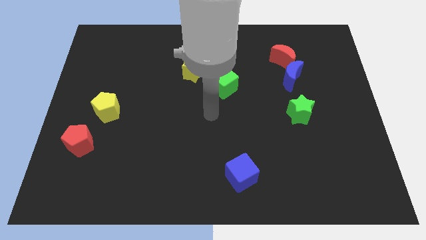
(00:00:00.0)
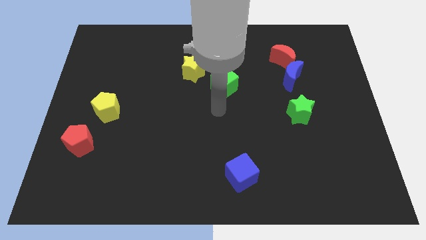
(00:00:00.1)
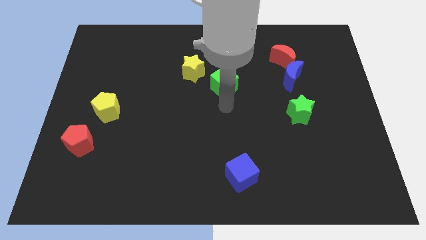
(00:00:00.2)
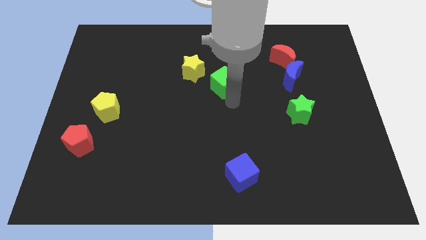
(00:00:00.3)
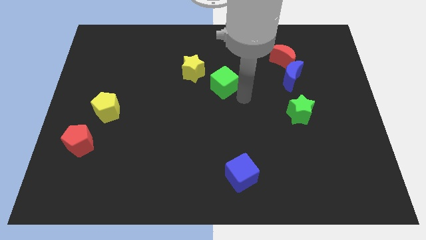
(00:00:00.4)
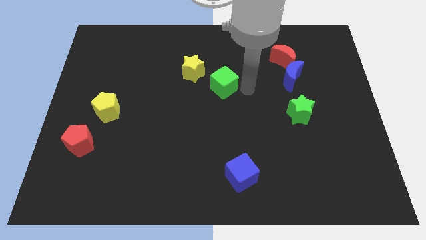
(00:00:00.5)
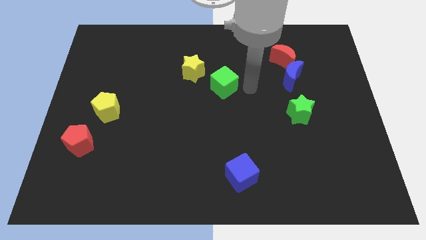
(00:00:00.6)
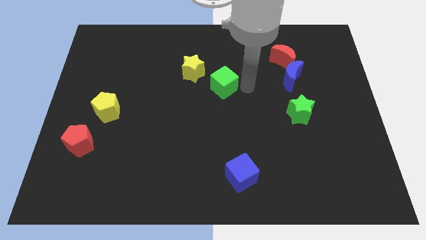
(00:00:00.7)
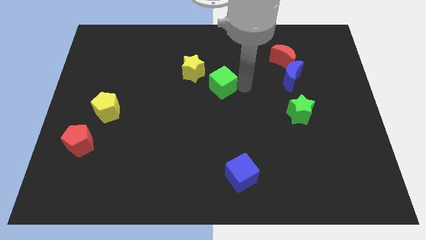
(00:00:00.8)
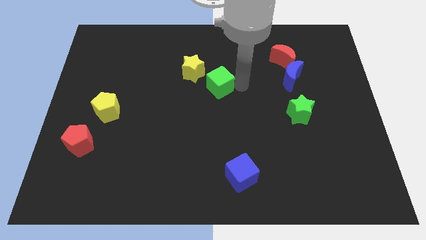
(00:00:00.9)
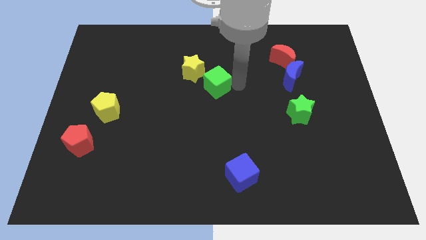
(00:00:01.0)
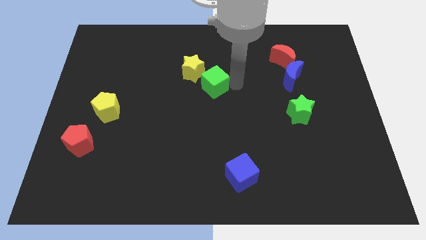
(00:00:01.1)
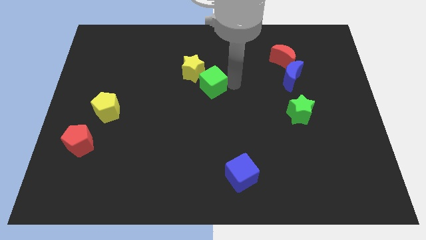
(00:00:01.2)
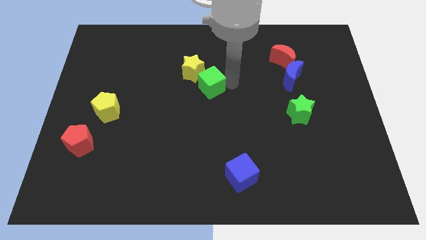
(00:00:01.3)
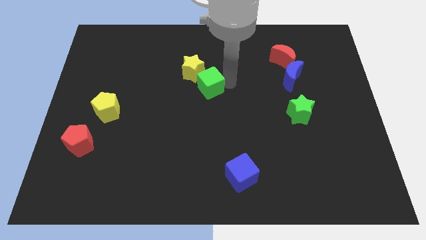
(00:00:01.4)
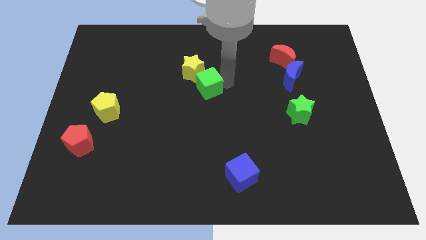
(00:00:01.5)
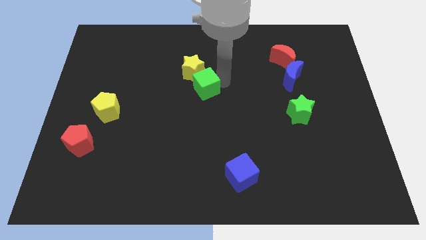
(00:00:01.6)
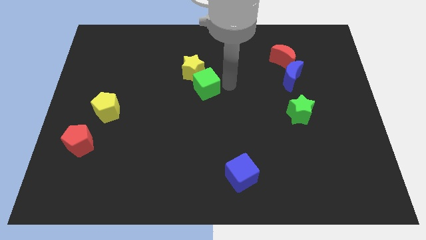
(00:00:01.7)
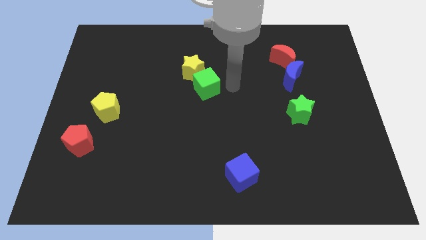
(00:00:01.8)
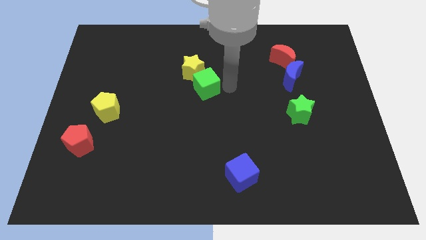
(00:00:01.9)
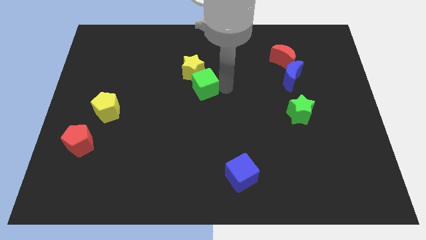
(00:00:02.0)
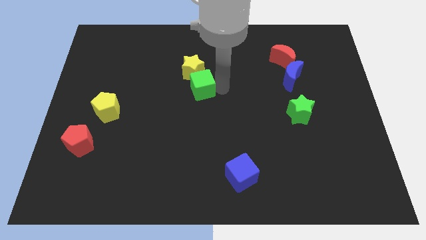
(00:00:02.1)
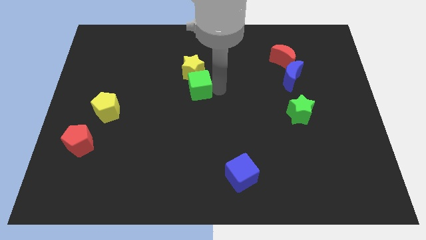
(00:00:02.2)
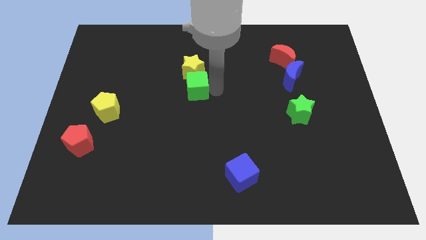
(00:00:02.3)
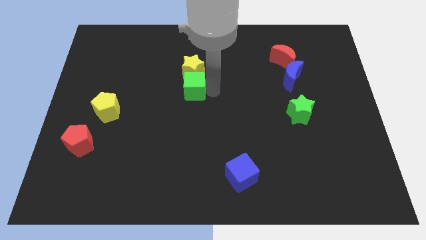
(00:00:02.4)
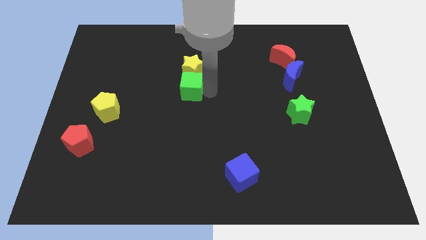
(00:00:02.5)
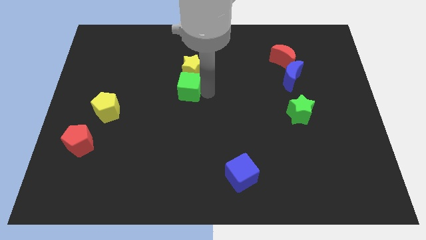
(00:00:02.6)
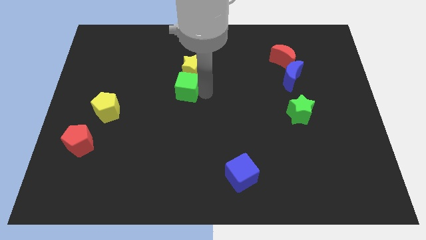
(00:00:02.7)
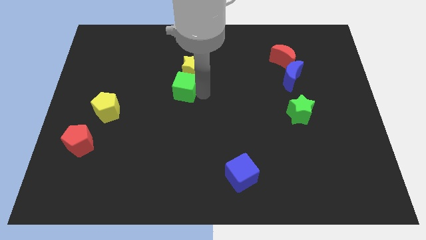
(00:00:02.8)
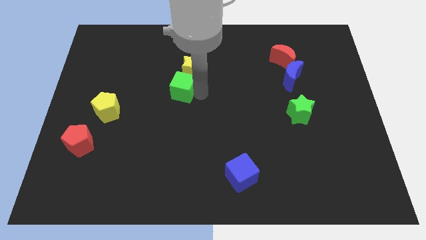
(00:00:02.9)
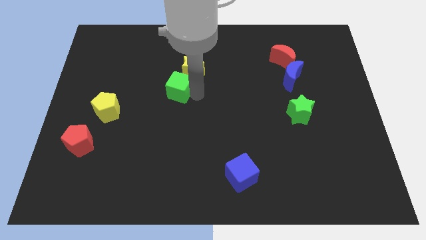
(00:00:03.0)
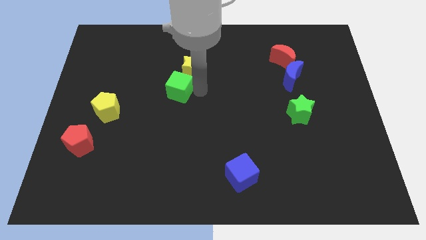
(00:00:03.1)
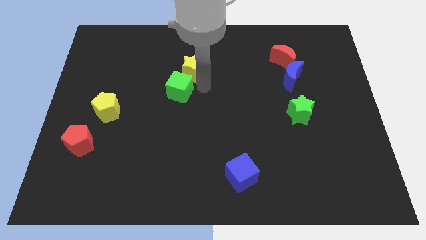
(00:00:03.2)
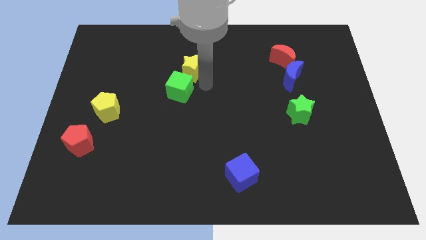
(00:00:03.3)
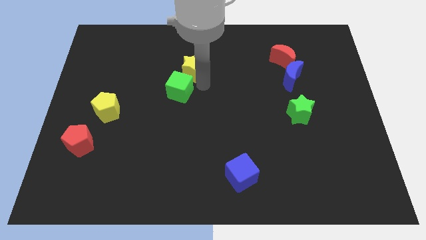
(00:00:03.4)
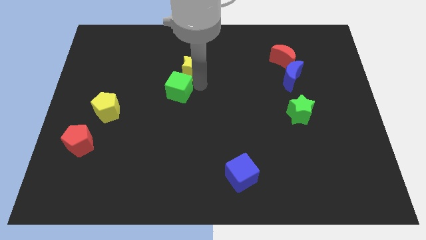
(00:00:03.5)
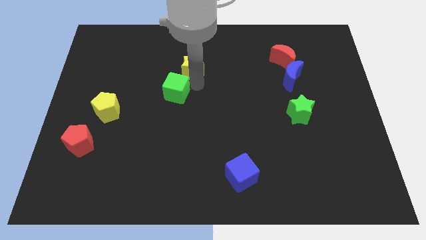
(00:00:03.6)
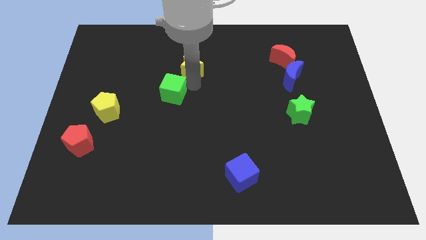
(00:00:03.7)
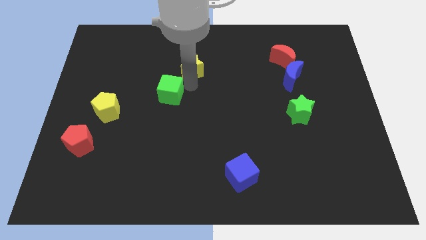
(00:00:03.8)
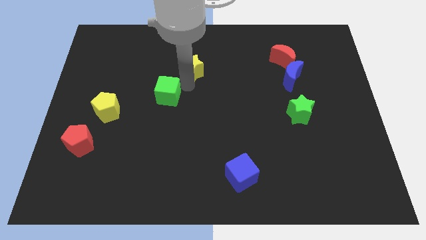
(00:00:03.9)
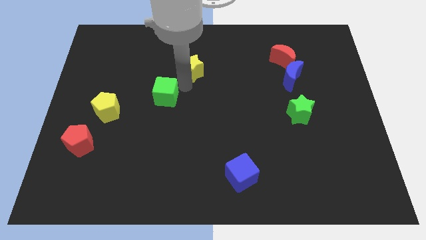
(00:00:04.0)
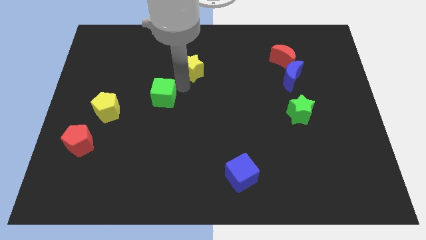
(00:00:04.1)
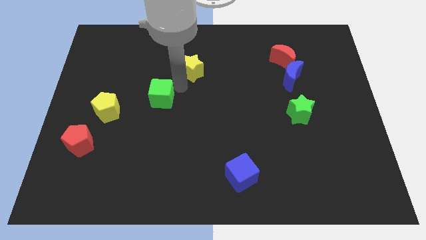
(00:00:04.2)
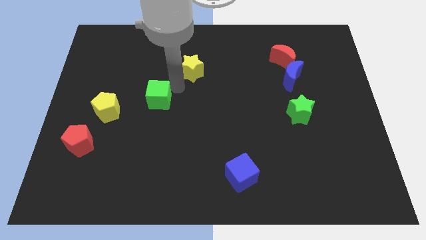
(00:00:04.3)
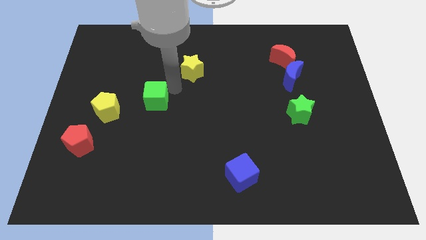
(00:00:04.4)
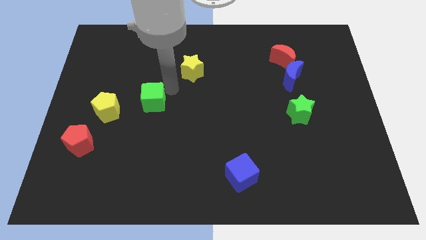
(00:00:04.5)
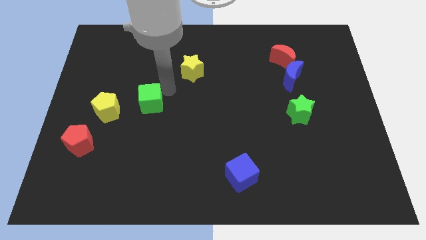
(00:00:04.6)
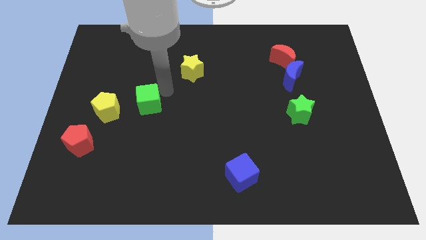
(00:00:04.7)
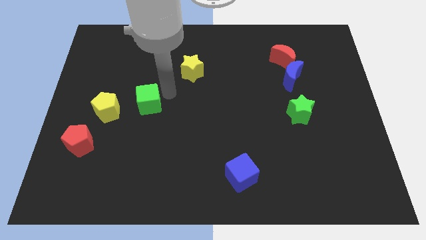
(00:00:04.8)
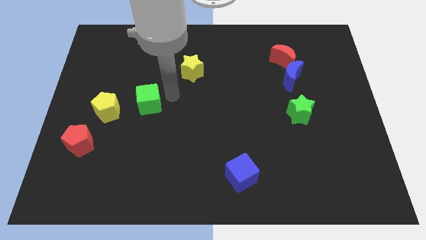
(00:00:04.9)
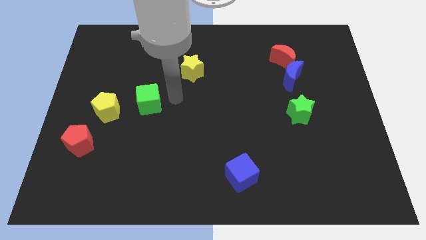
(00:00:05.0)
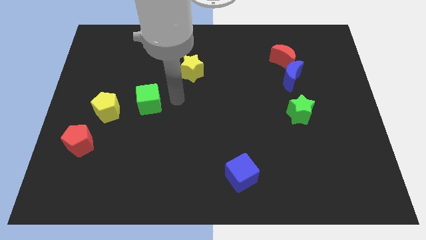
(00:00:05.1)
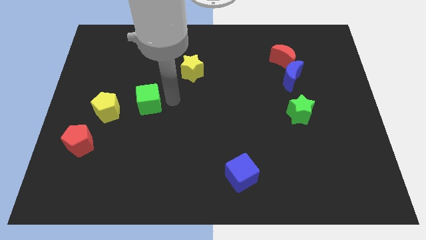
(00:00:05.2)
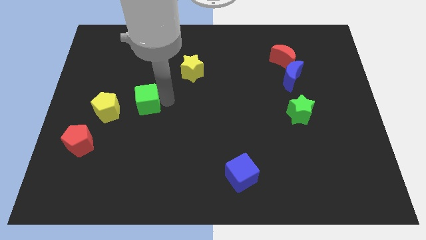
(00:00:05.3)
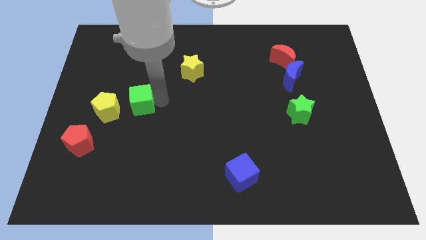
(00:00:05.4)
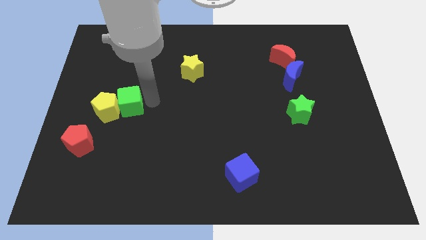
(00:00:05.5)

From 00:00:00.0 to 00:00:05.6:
move the green cube next to the yellow pentagon
